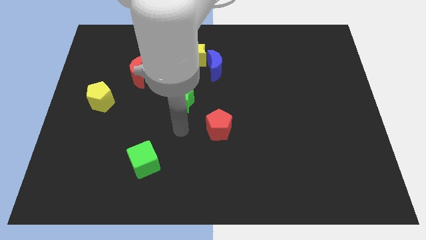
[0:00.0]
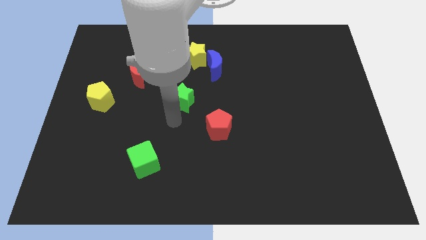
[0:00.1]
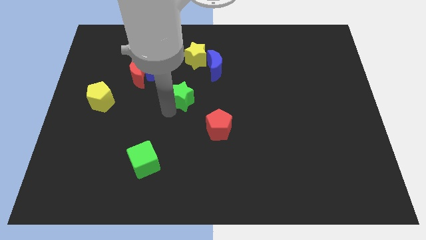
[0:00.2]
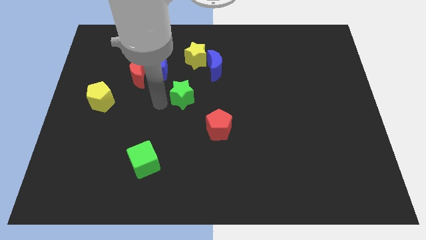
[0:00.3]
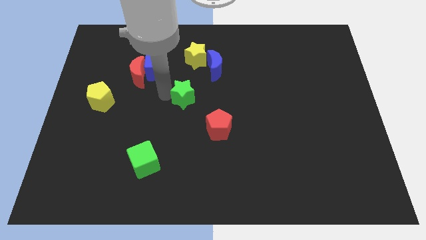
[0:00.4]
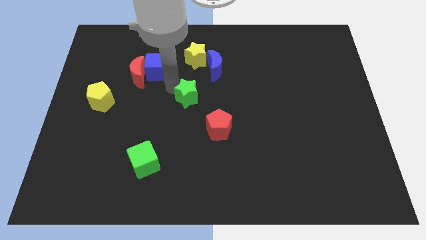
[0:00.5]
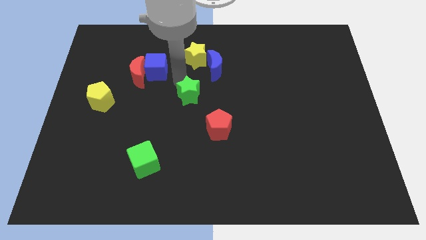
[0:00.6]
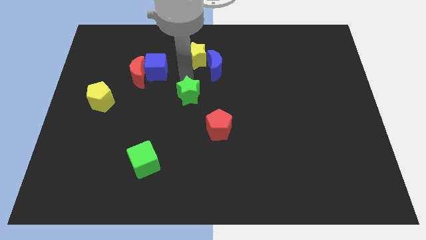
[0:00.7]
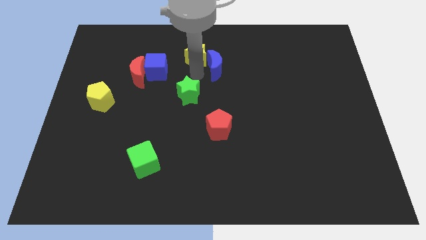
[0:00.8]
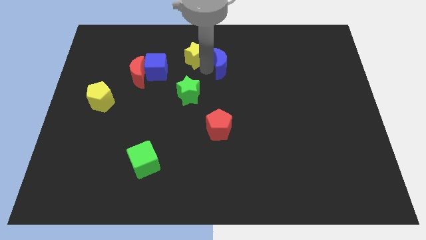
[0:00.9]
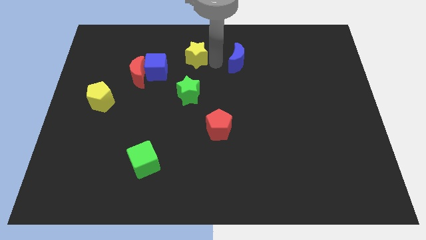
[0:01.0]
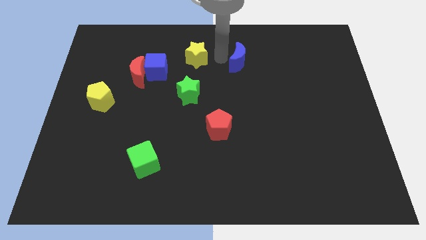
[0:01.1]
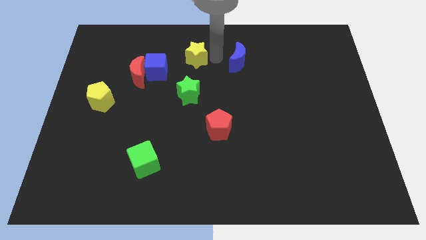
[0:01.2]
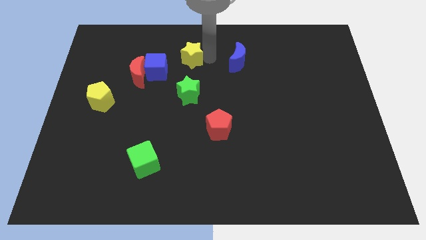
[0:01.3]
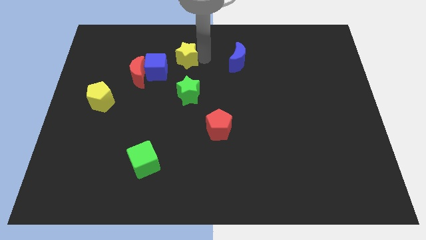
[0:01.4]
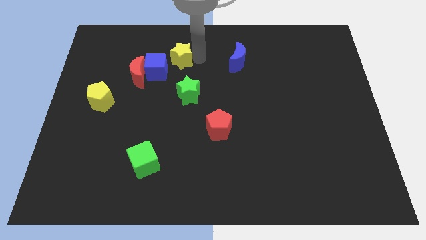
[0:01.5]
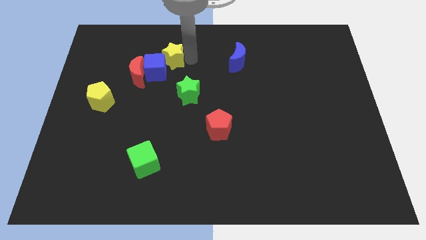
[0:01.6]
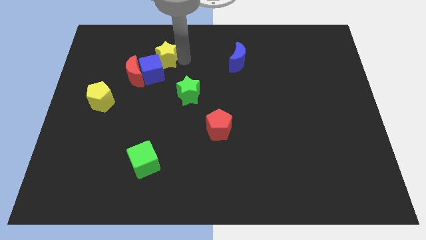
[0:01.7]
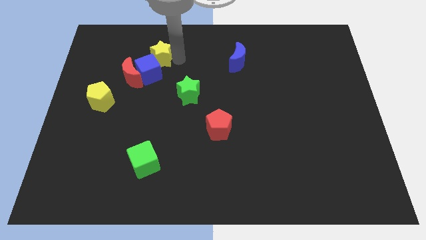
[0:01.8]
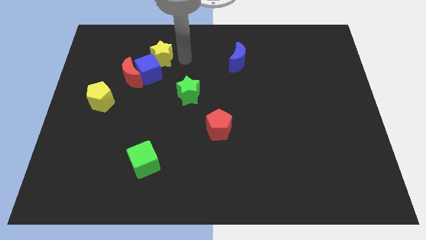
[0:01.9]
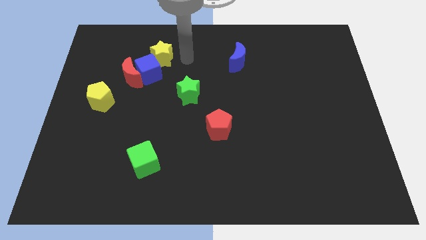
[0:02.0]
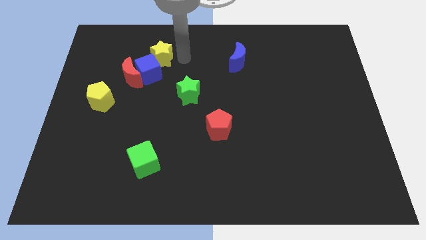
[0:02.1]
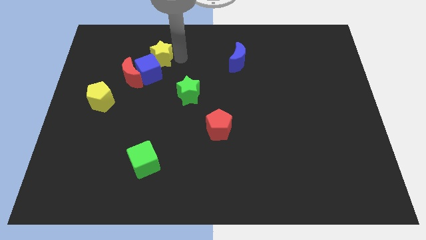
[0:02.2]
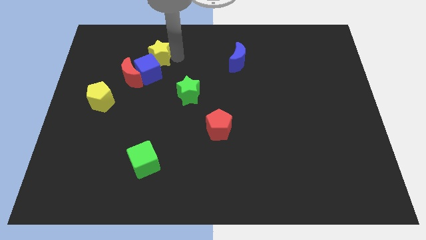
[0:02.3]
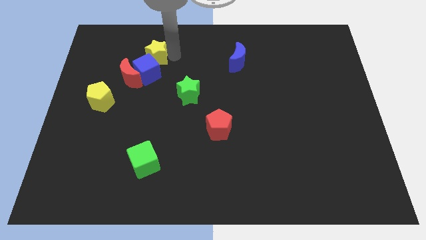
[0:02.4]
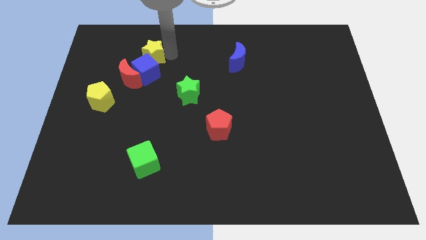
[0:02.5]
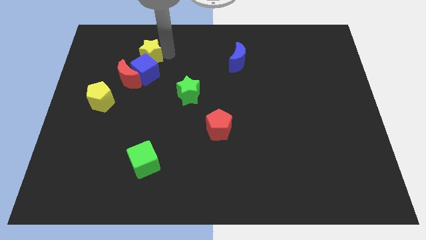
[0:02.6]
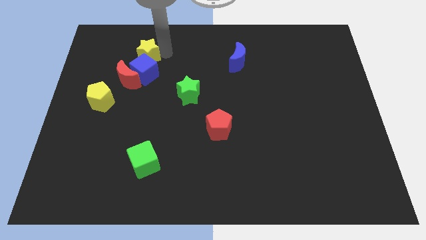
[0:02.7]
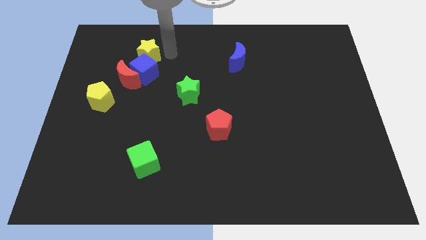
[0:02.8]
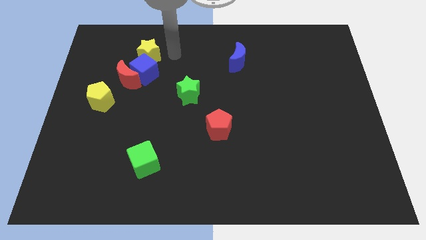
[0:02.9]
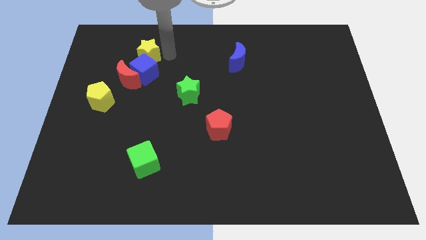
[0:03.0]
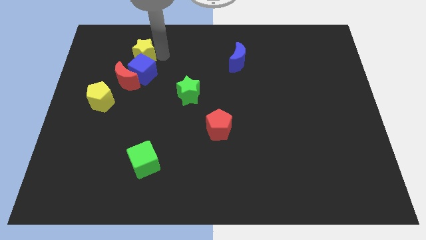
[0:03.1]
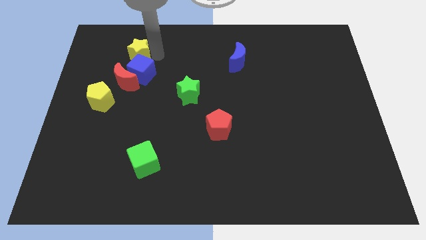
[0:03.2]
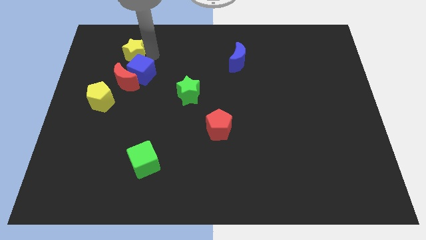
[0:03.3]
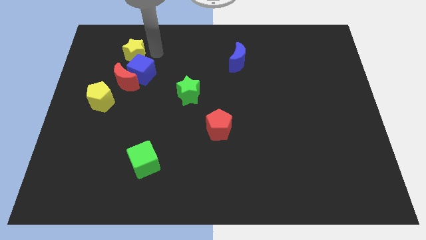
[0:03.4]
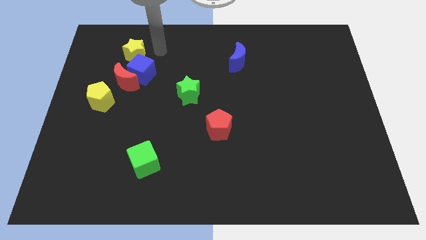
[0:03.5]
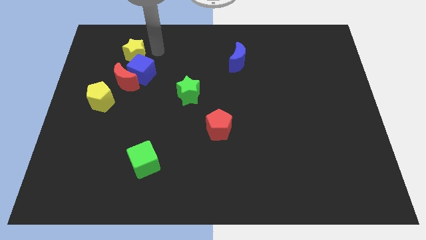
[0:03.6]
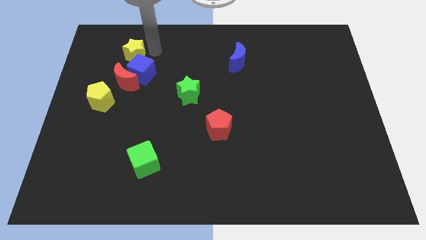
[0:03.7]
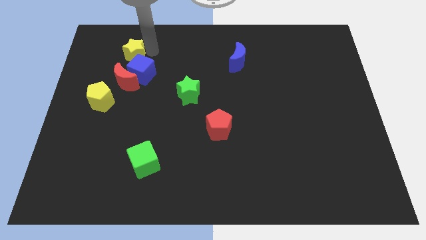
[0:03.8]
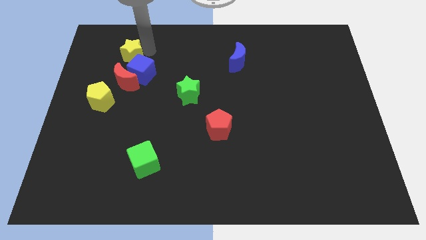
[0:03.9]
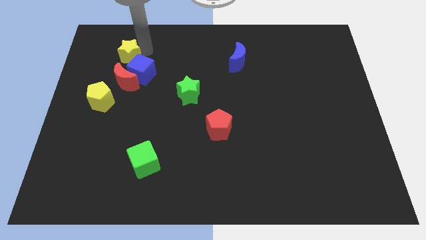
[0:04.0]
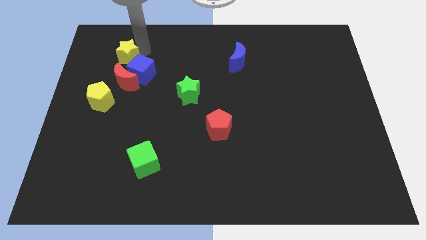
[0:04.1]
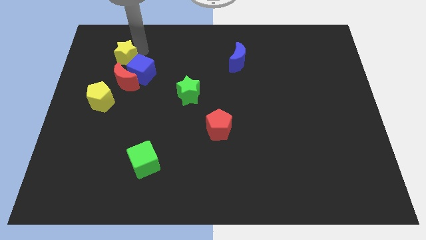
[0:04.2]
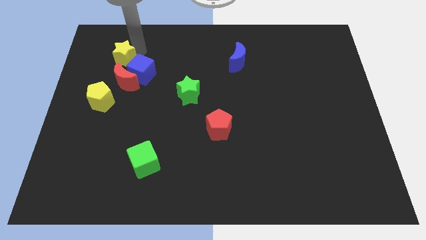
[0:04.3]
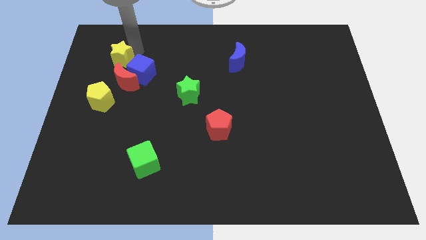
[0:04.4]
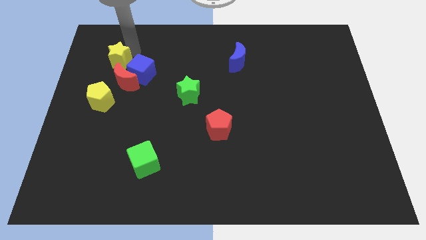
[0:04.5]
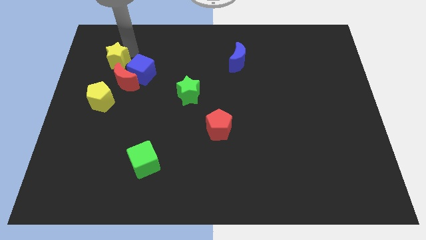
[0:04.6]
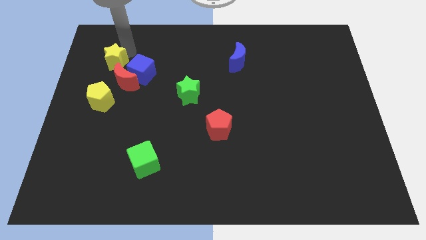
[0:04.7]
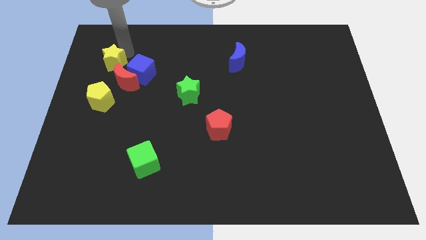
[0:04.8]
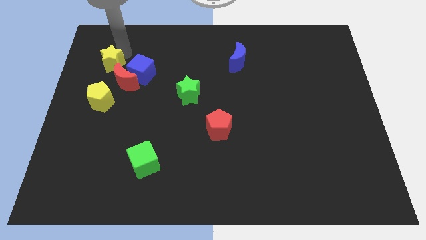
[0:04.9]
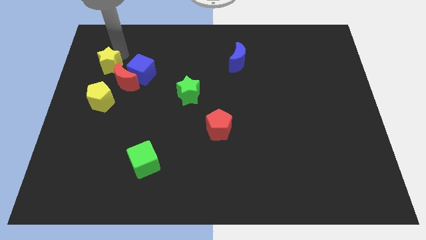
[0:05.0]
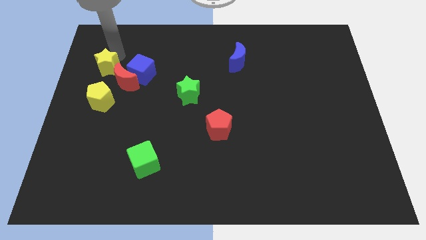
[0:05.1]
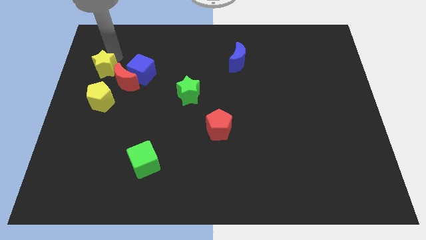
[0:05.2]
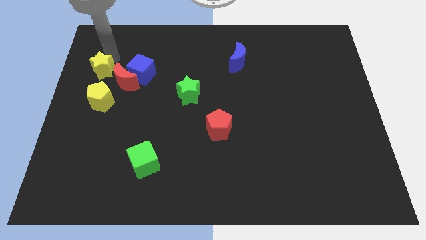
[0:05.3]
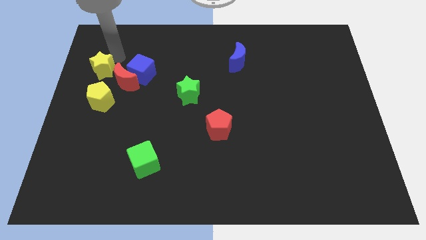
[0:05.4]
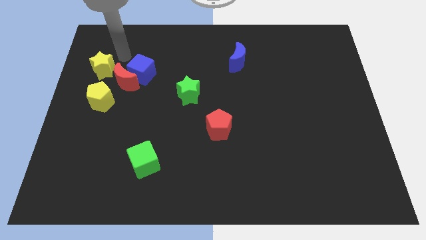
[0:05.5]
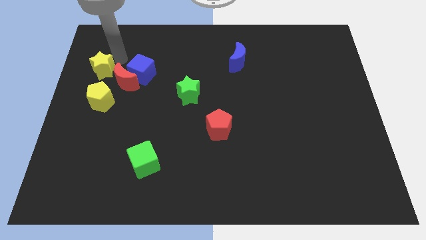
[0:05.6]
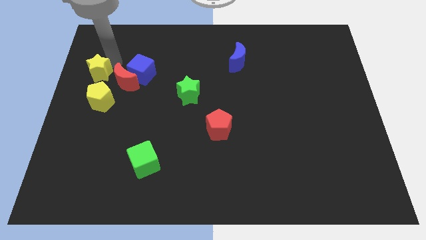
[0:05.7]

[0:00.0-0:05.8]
slide the yellow star to the center left

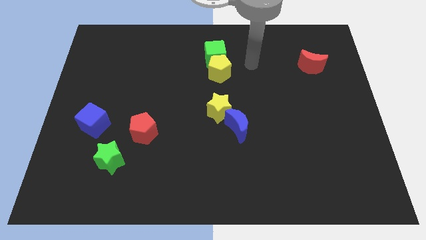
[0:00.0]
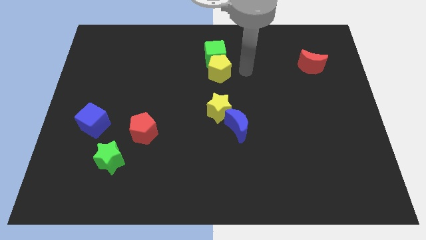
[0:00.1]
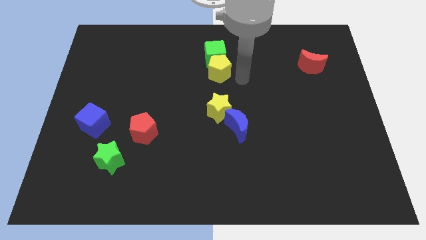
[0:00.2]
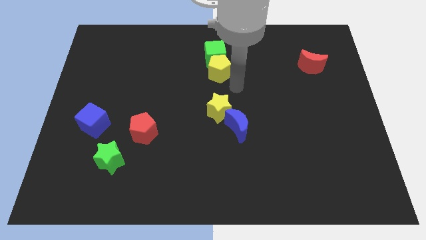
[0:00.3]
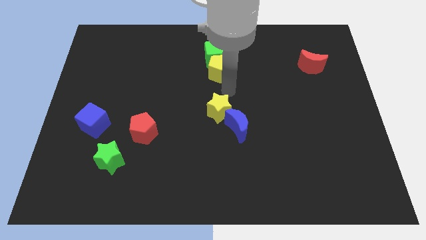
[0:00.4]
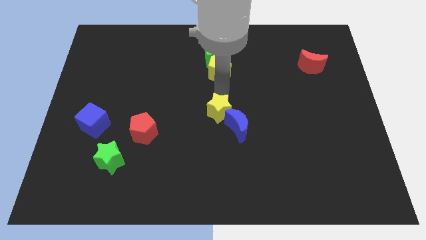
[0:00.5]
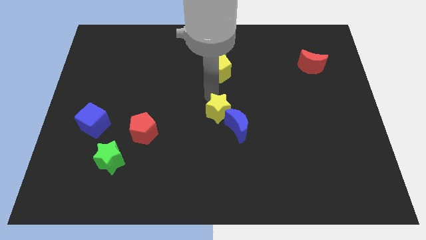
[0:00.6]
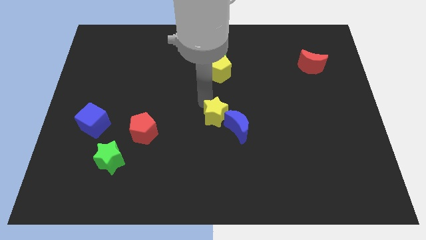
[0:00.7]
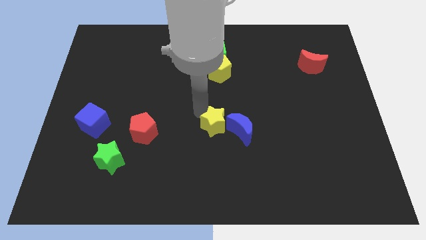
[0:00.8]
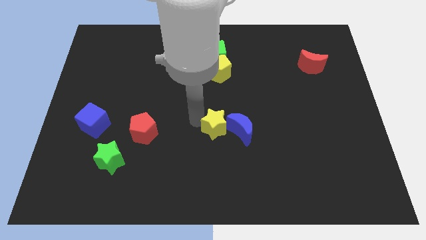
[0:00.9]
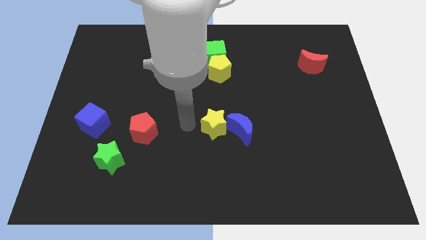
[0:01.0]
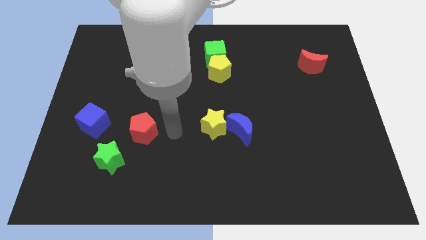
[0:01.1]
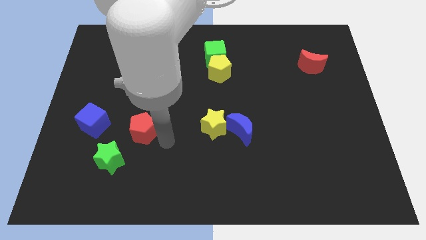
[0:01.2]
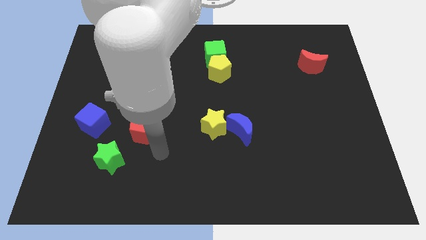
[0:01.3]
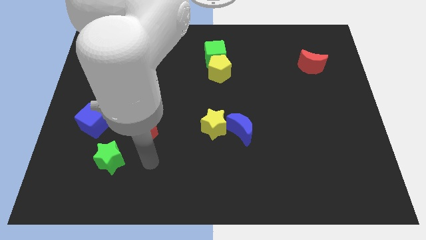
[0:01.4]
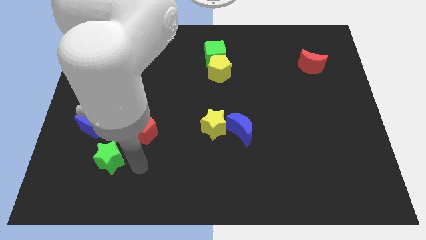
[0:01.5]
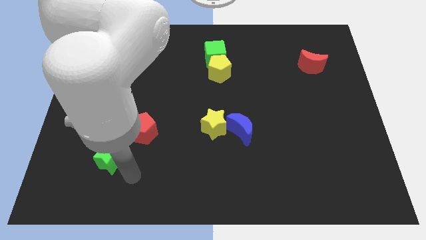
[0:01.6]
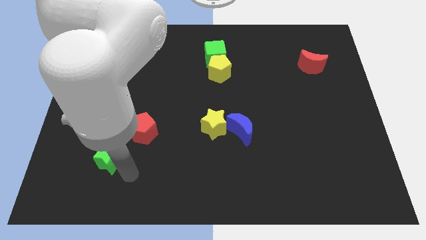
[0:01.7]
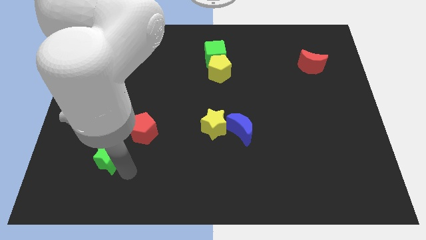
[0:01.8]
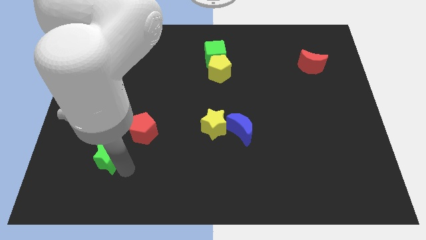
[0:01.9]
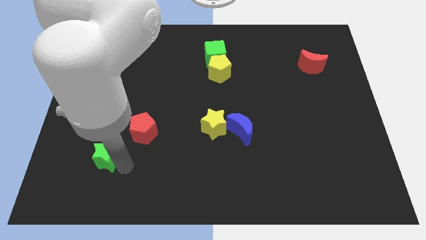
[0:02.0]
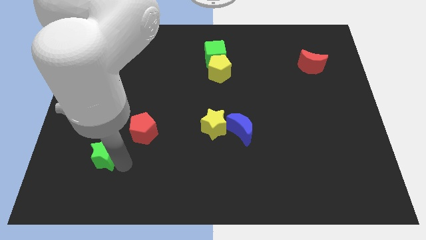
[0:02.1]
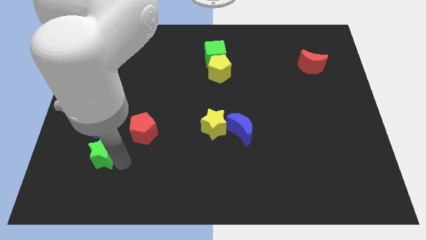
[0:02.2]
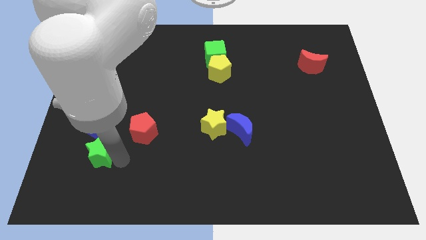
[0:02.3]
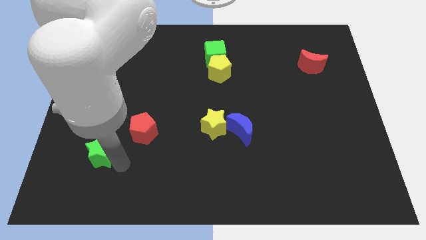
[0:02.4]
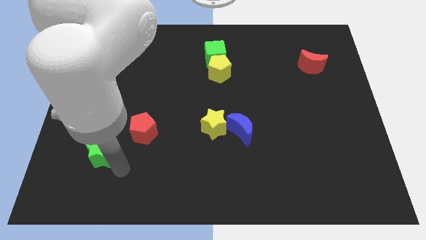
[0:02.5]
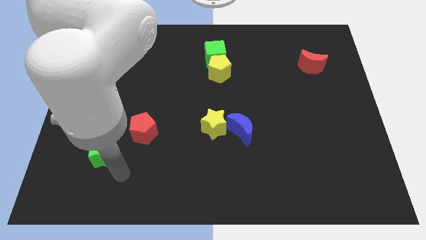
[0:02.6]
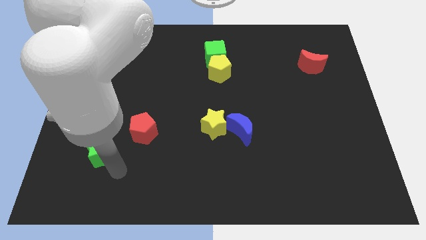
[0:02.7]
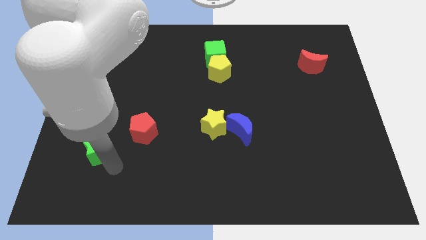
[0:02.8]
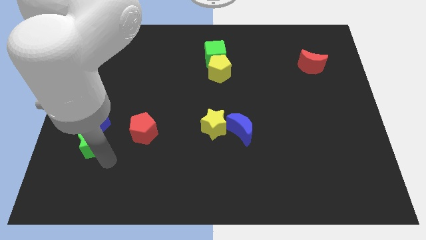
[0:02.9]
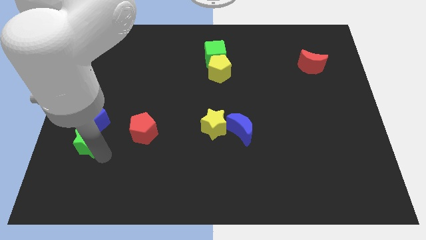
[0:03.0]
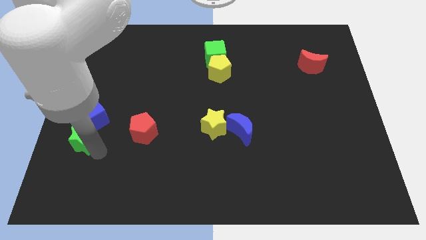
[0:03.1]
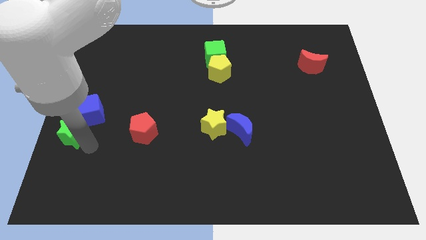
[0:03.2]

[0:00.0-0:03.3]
slide the green star to the left side
